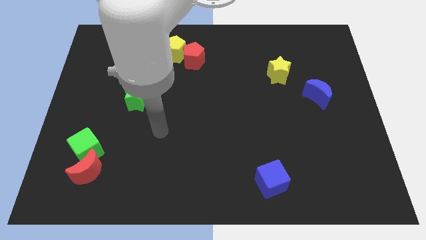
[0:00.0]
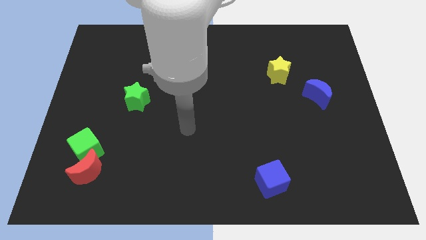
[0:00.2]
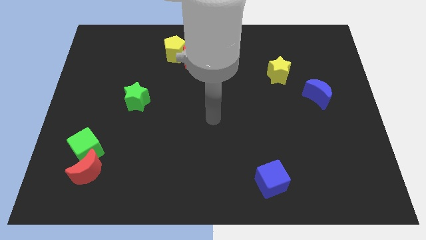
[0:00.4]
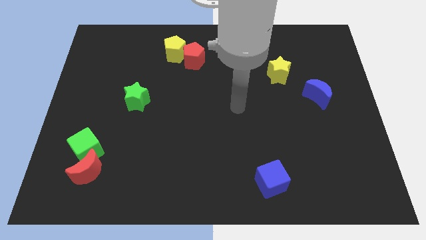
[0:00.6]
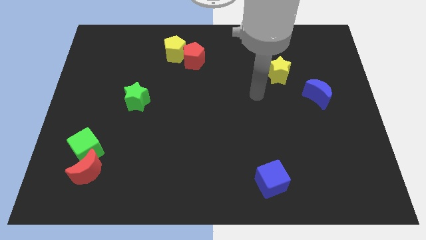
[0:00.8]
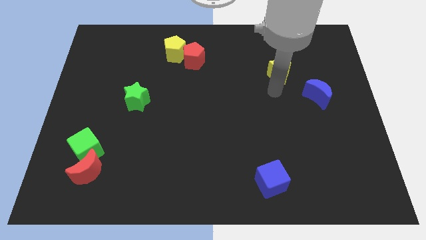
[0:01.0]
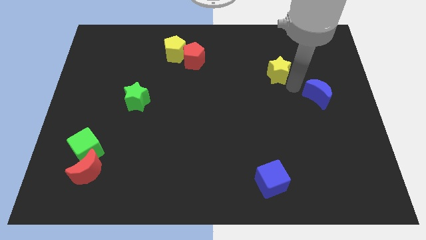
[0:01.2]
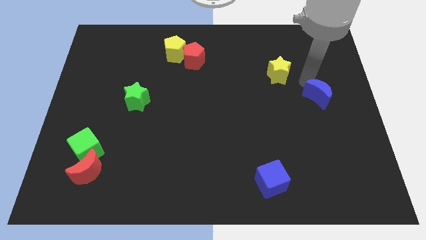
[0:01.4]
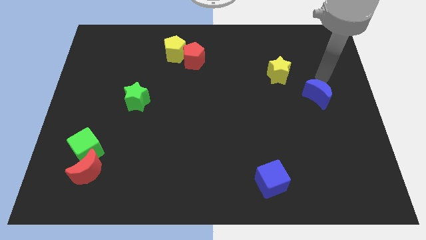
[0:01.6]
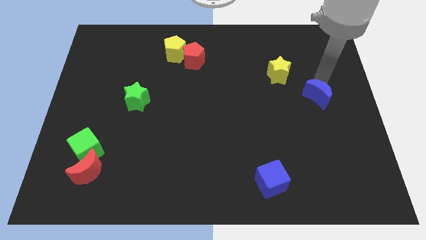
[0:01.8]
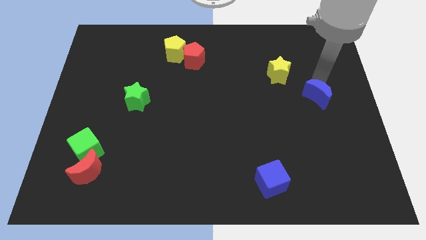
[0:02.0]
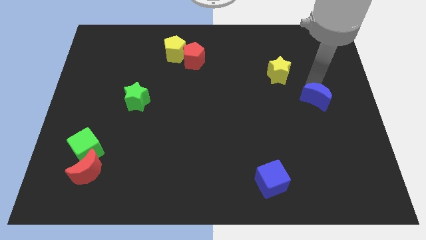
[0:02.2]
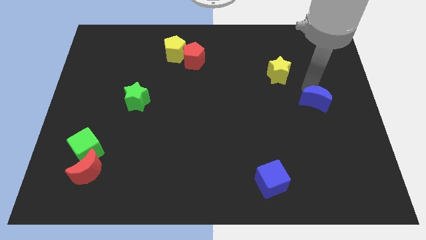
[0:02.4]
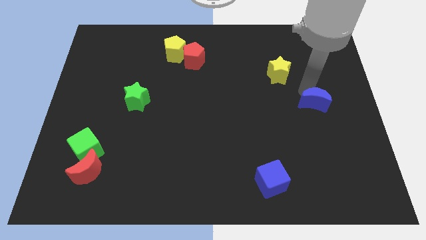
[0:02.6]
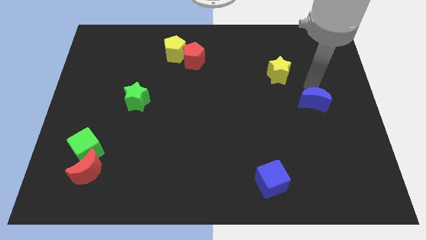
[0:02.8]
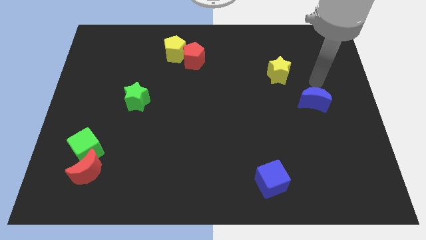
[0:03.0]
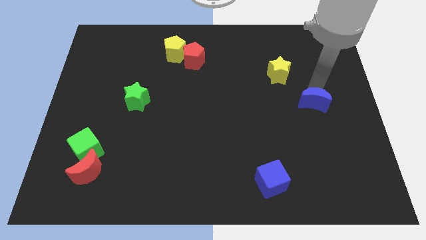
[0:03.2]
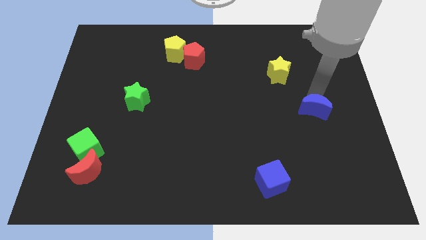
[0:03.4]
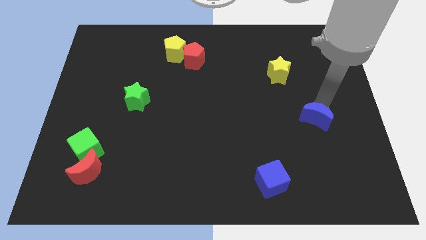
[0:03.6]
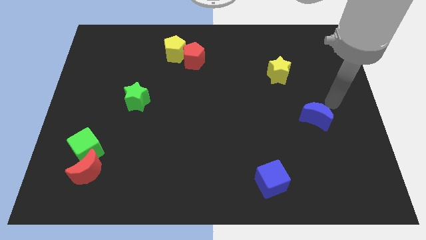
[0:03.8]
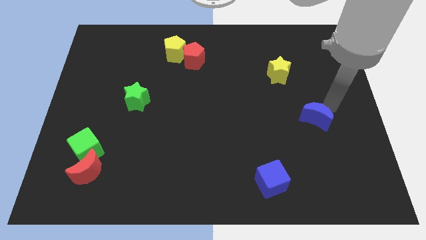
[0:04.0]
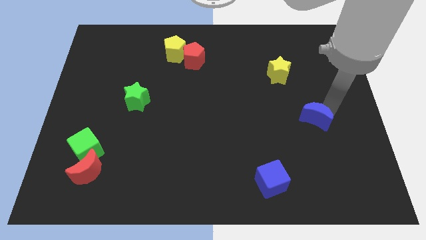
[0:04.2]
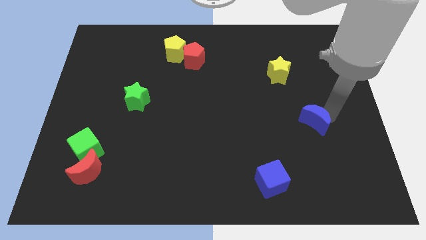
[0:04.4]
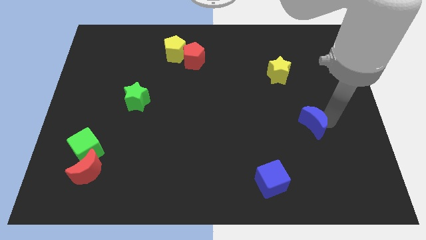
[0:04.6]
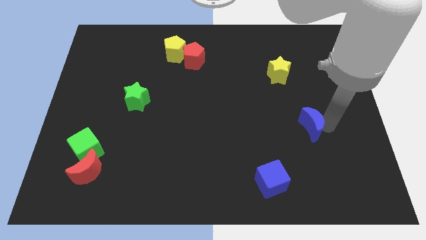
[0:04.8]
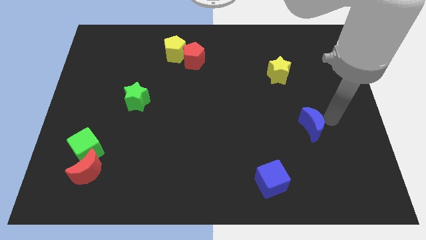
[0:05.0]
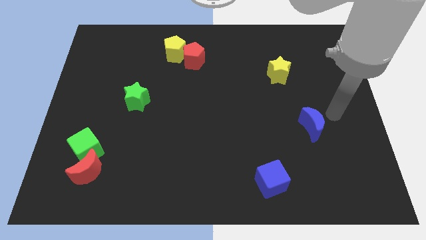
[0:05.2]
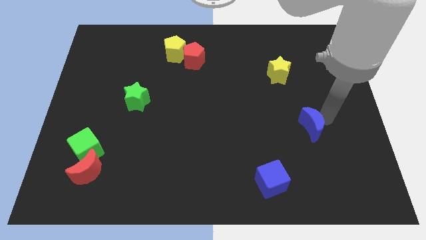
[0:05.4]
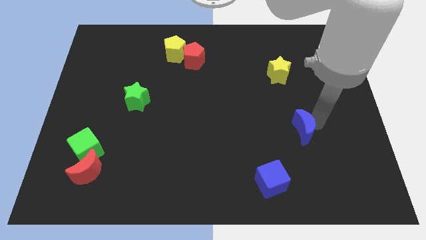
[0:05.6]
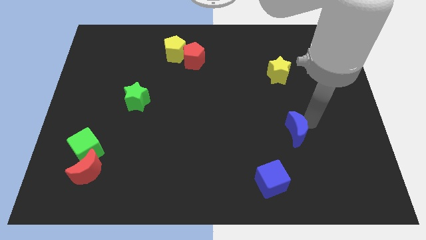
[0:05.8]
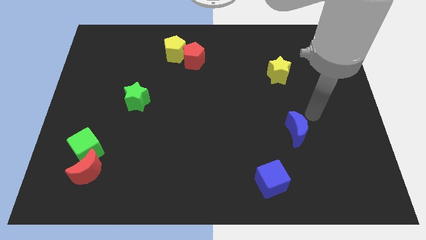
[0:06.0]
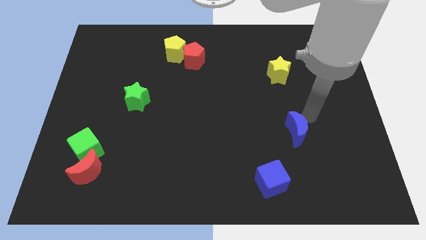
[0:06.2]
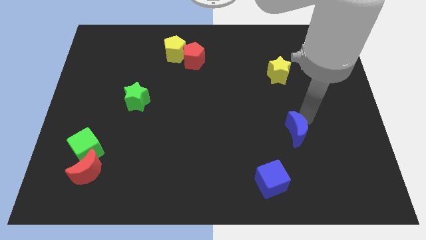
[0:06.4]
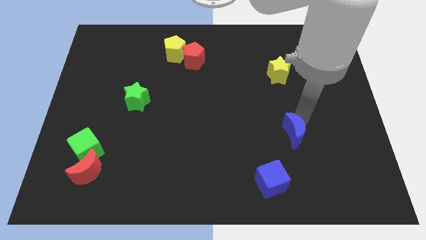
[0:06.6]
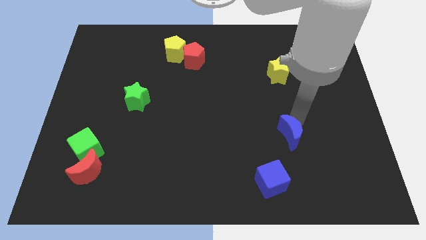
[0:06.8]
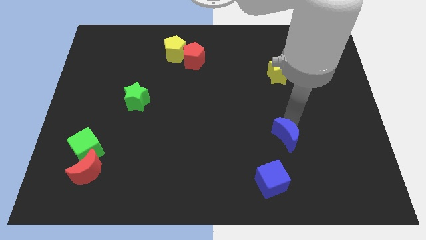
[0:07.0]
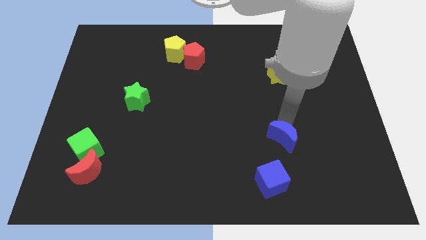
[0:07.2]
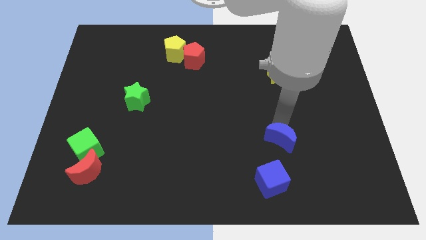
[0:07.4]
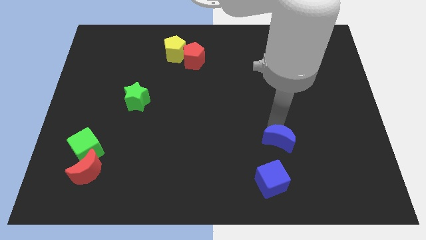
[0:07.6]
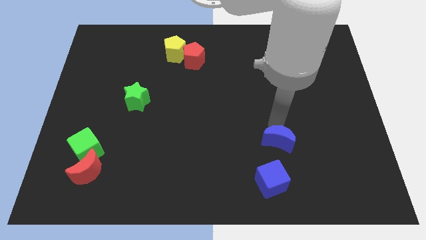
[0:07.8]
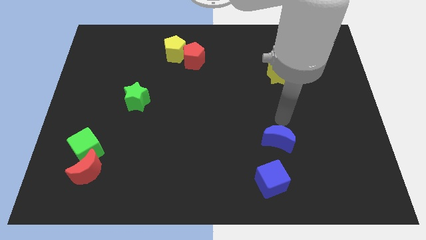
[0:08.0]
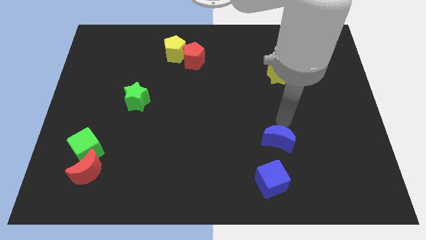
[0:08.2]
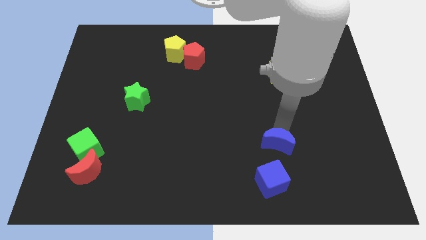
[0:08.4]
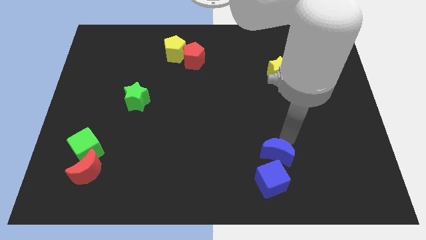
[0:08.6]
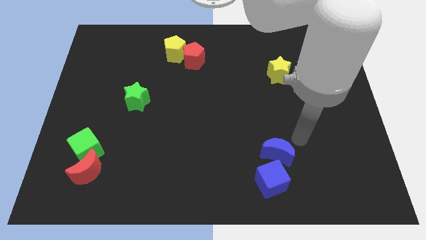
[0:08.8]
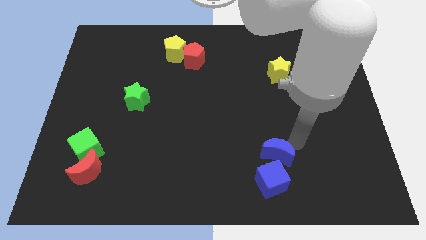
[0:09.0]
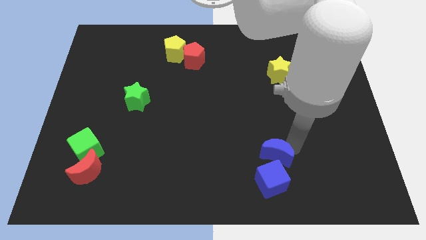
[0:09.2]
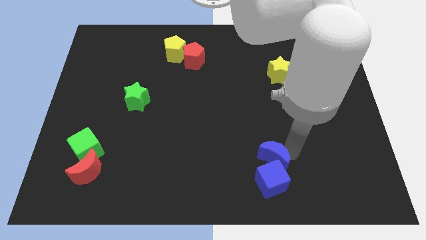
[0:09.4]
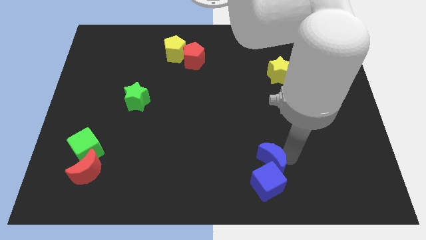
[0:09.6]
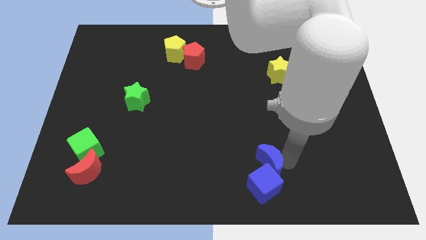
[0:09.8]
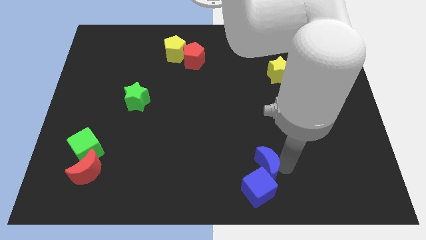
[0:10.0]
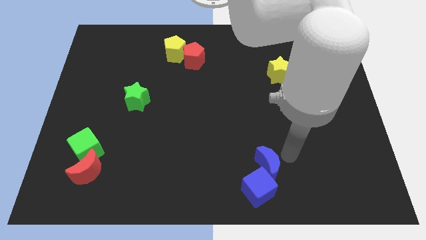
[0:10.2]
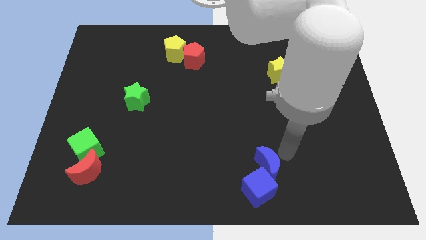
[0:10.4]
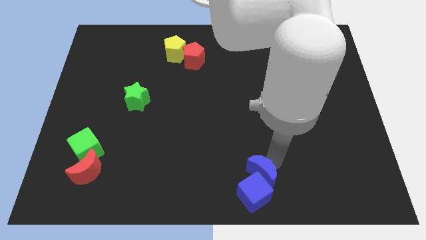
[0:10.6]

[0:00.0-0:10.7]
move the blue moon to the bottom side
